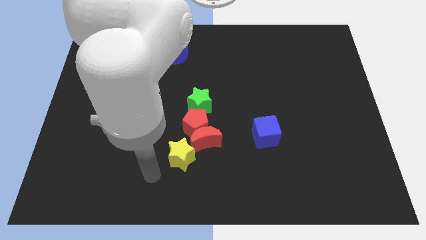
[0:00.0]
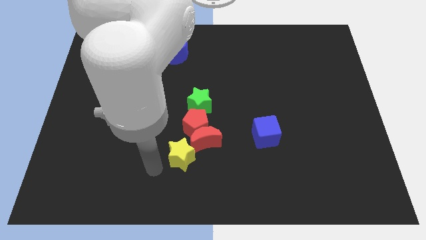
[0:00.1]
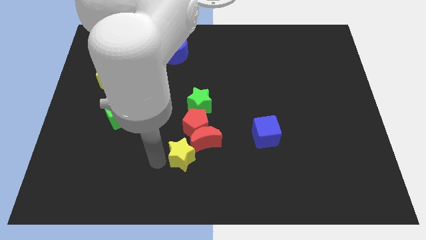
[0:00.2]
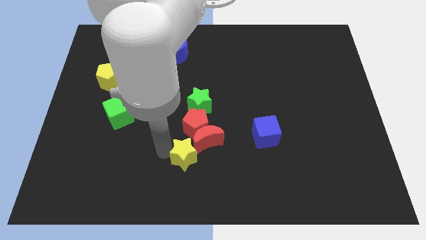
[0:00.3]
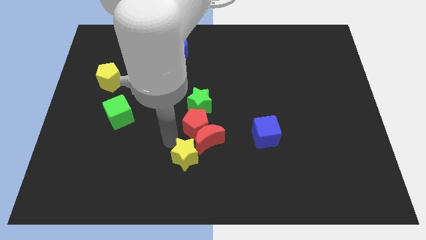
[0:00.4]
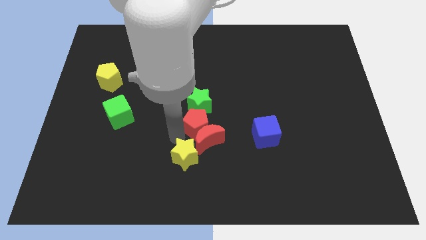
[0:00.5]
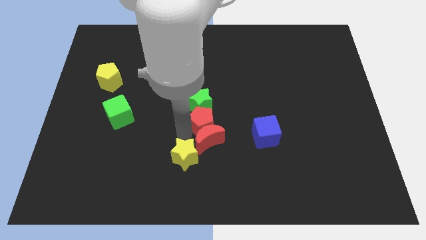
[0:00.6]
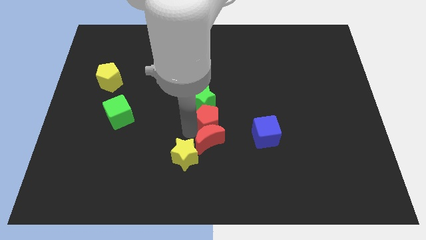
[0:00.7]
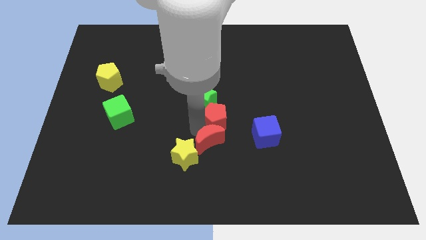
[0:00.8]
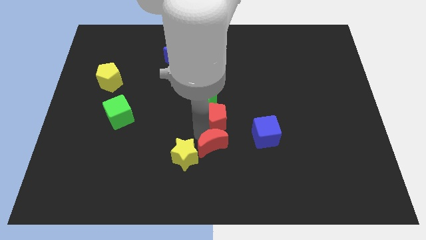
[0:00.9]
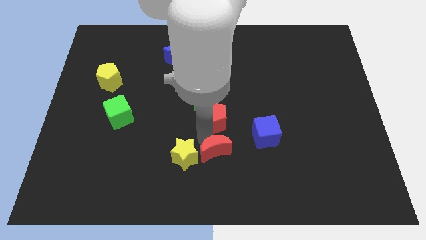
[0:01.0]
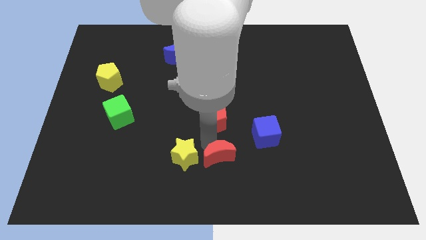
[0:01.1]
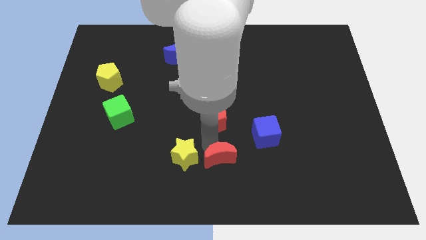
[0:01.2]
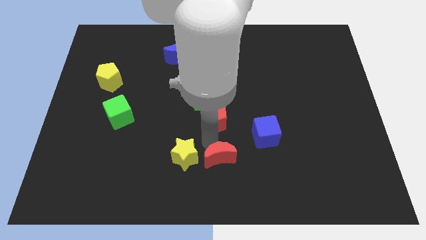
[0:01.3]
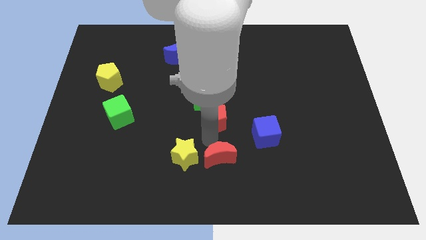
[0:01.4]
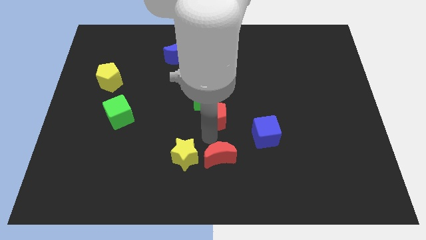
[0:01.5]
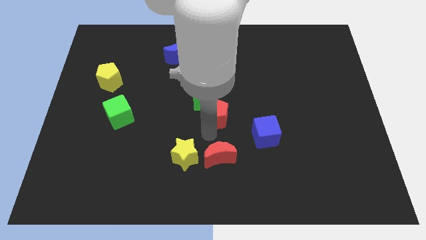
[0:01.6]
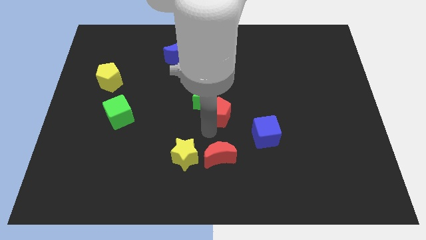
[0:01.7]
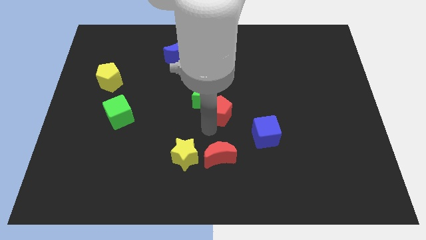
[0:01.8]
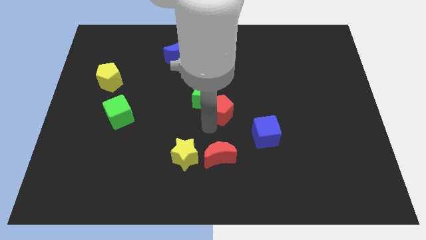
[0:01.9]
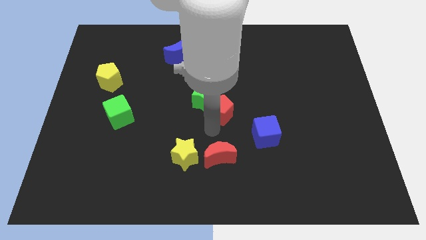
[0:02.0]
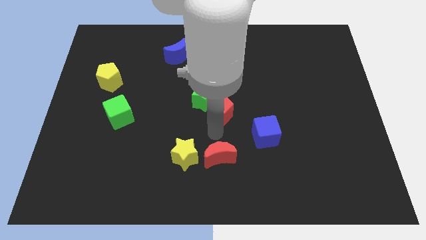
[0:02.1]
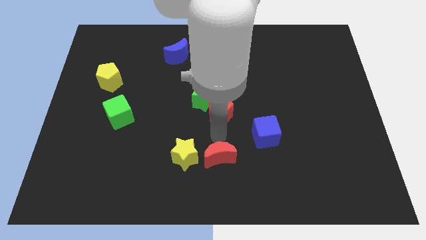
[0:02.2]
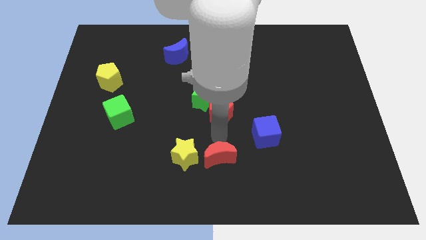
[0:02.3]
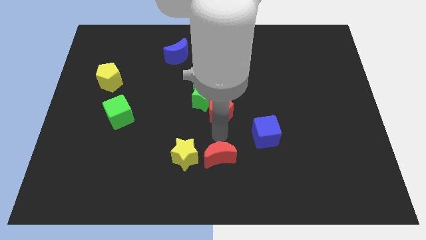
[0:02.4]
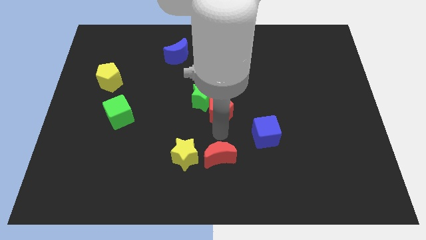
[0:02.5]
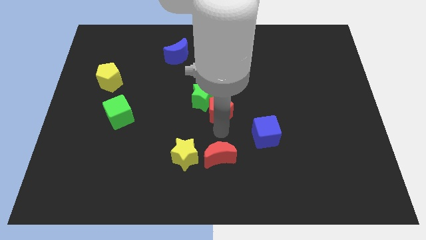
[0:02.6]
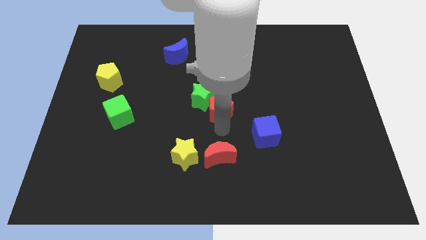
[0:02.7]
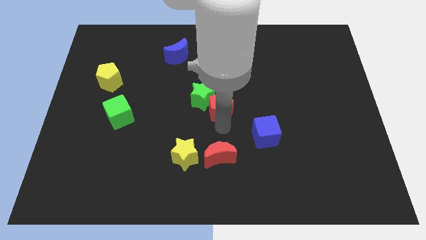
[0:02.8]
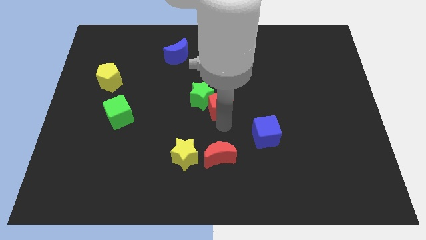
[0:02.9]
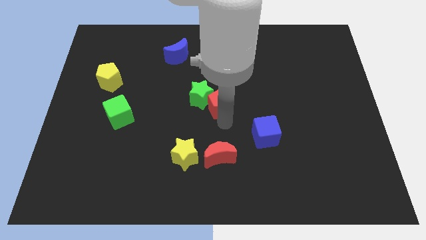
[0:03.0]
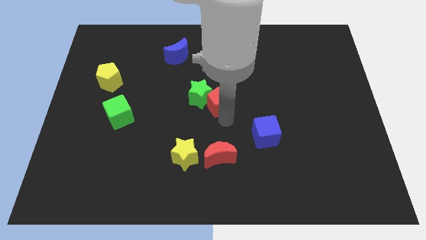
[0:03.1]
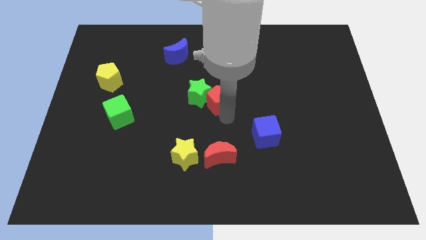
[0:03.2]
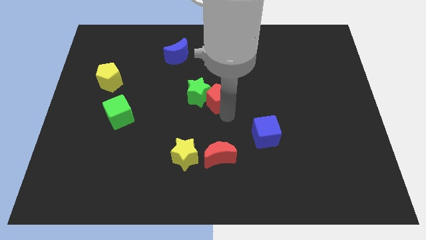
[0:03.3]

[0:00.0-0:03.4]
separate the red pentagon from the group of blocks

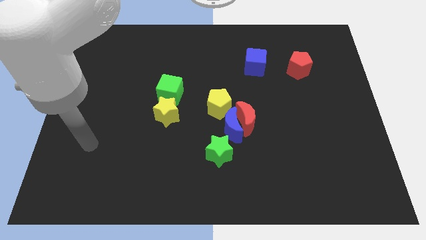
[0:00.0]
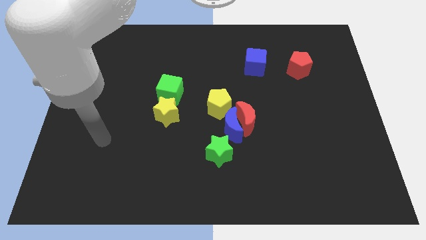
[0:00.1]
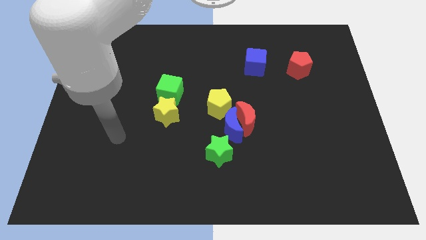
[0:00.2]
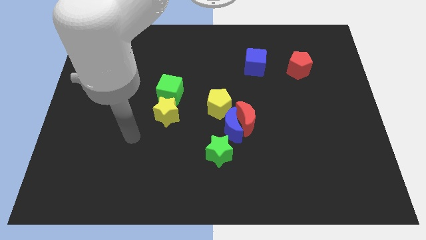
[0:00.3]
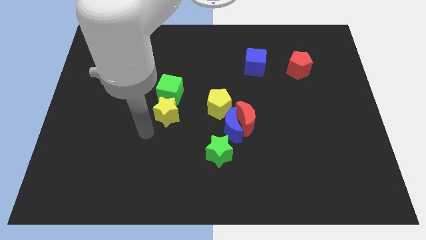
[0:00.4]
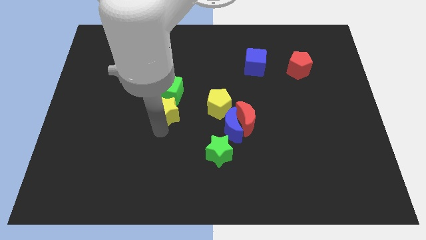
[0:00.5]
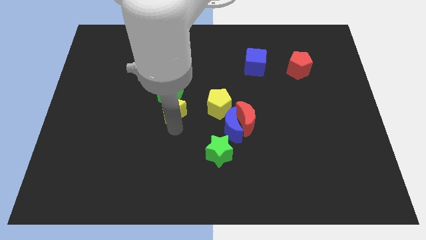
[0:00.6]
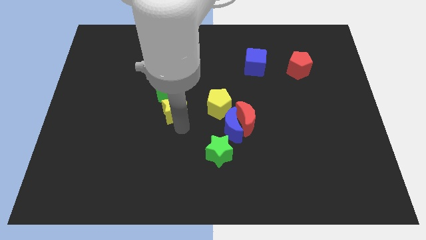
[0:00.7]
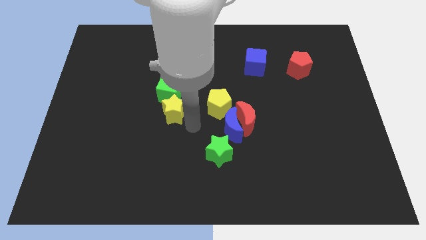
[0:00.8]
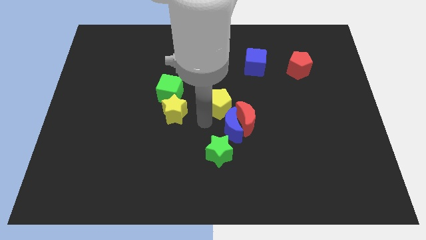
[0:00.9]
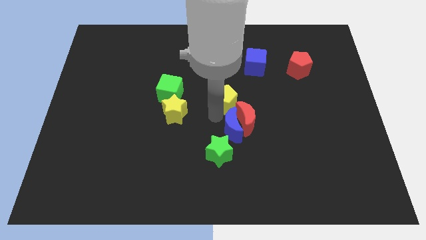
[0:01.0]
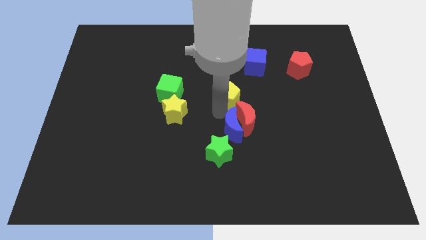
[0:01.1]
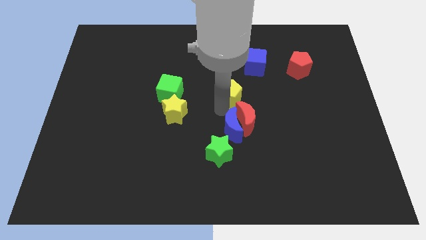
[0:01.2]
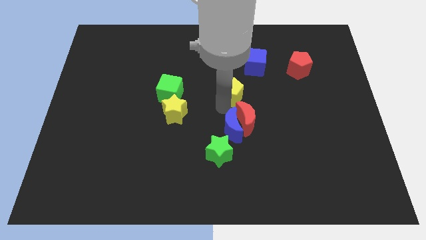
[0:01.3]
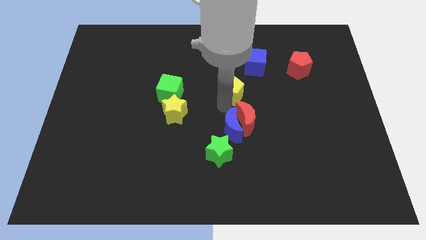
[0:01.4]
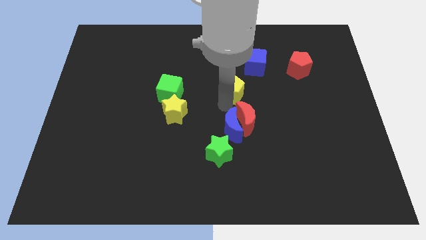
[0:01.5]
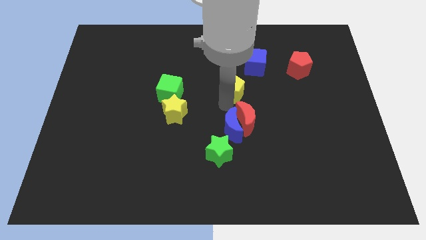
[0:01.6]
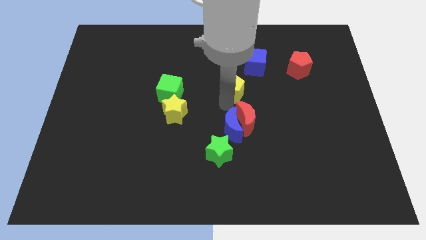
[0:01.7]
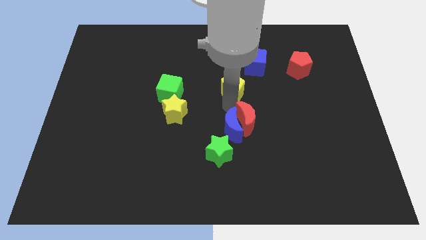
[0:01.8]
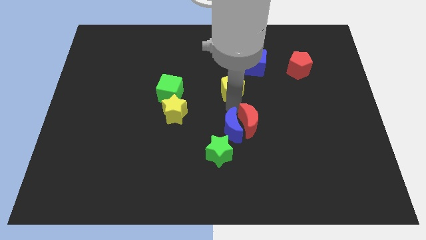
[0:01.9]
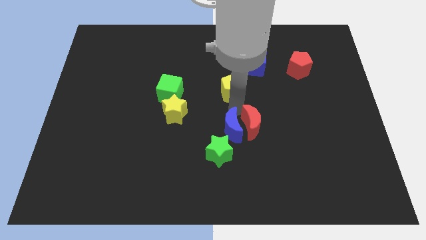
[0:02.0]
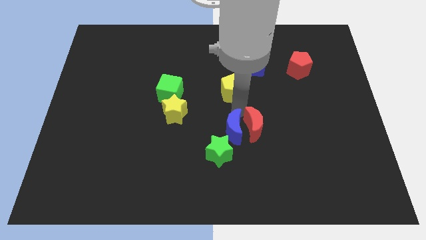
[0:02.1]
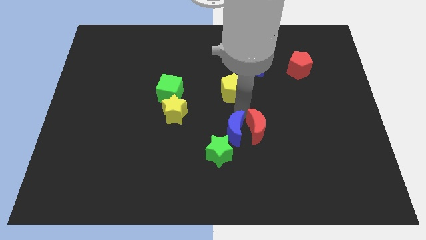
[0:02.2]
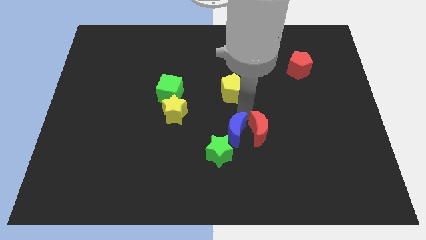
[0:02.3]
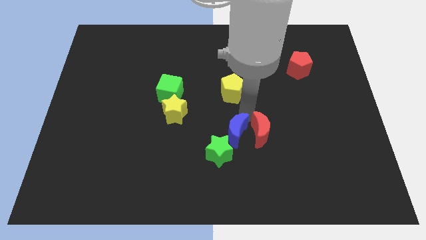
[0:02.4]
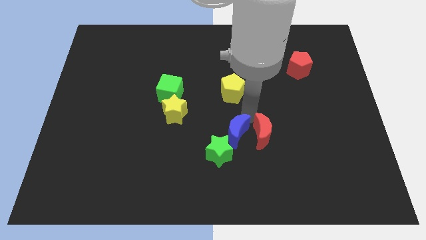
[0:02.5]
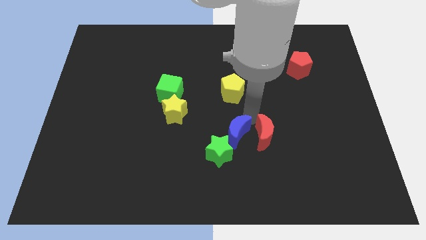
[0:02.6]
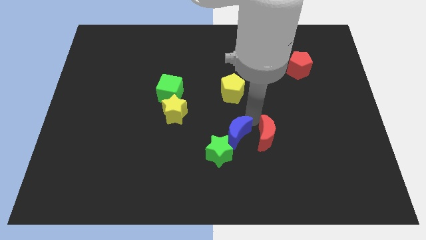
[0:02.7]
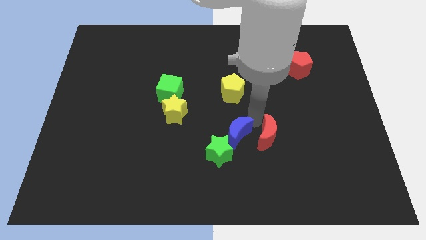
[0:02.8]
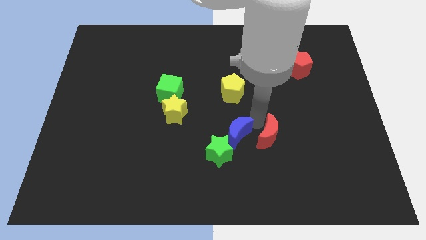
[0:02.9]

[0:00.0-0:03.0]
move the red moon away from the blue moon and yellow pentagon

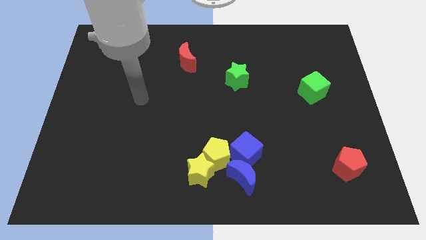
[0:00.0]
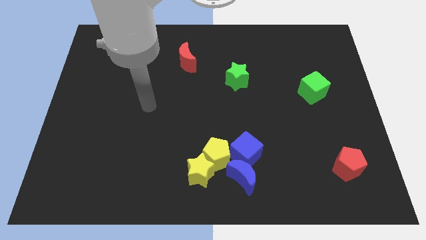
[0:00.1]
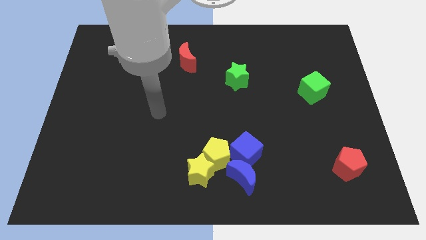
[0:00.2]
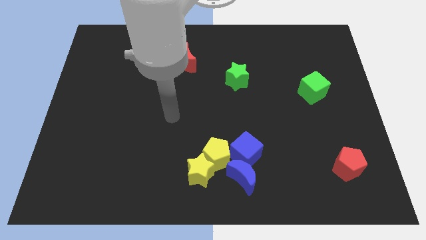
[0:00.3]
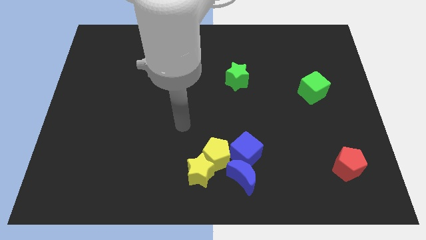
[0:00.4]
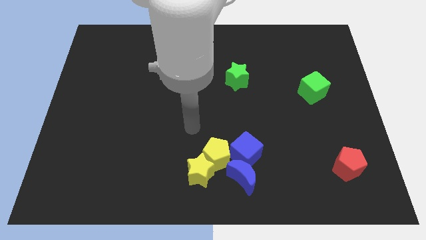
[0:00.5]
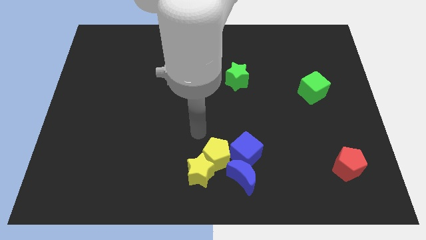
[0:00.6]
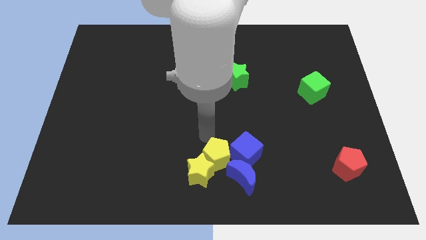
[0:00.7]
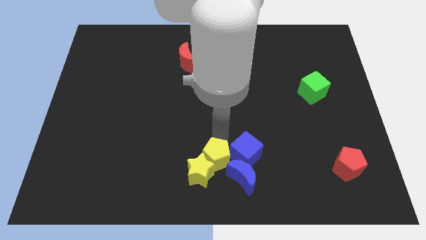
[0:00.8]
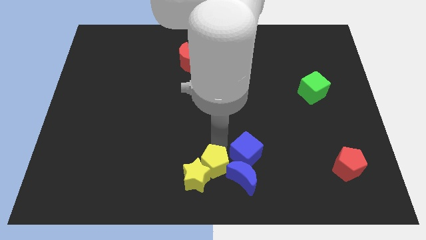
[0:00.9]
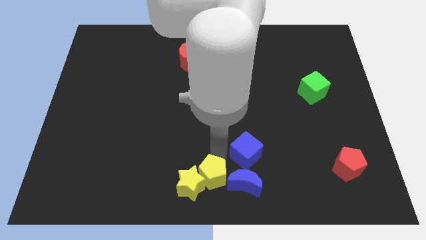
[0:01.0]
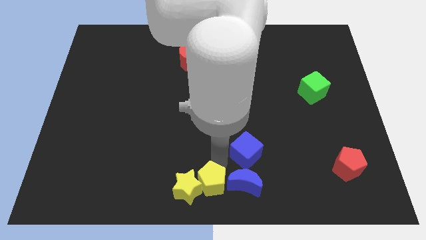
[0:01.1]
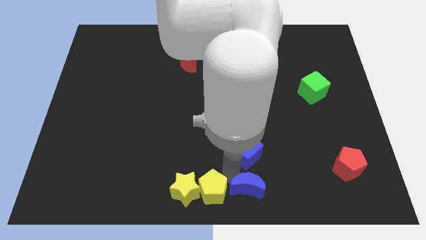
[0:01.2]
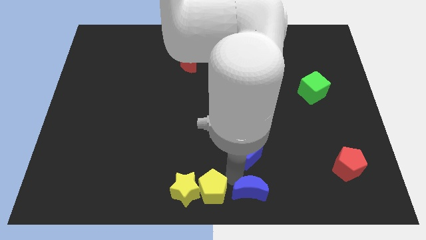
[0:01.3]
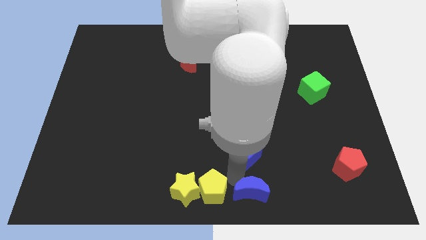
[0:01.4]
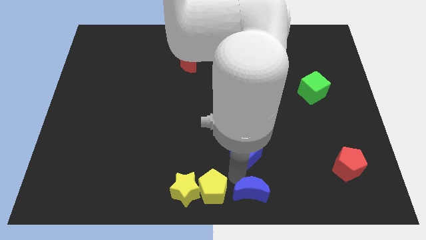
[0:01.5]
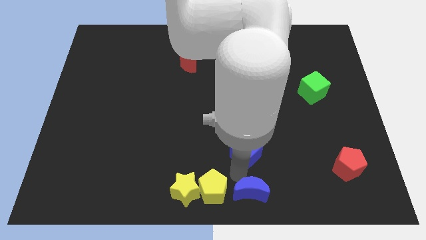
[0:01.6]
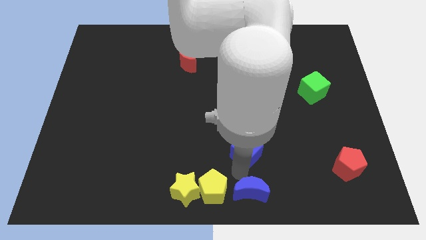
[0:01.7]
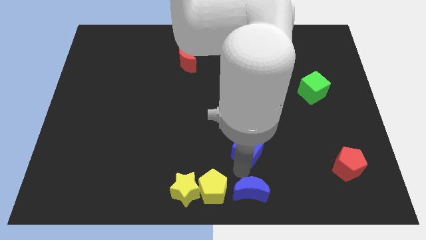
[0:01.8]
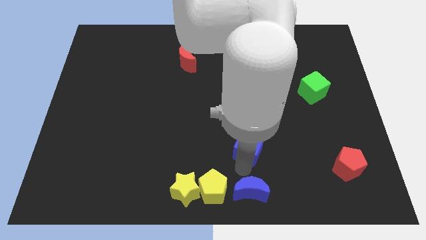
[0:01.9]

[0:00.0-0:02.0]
pull the blue cube apart from the blue moon and yellow pentagon

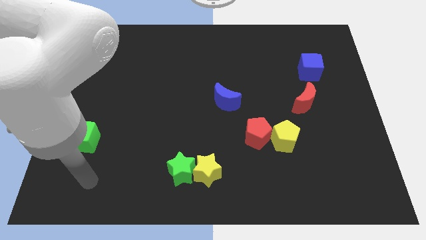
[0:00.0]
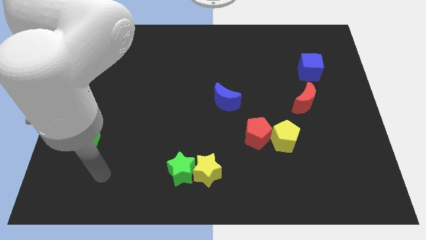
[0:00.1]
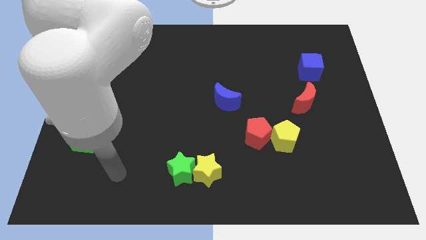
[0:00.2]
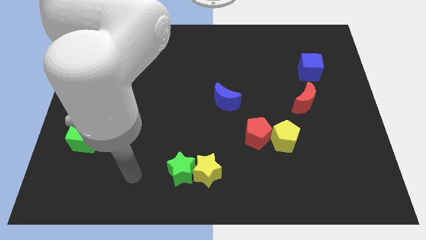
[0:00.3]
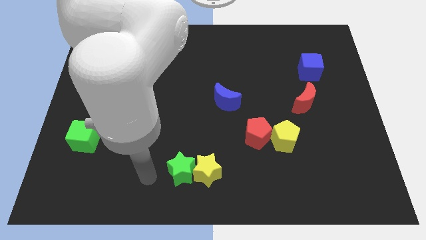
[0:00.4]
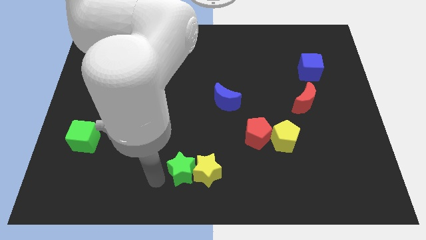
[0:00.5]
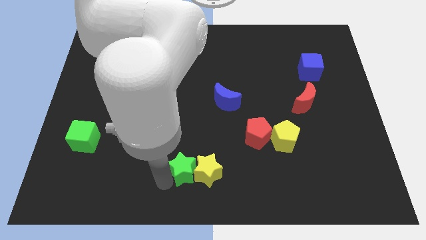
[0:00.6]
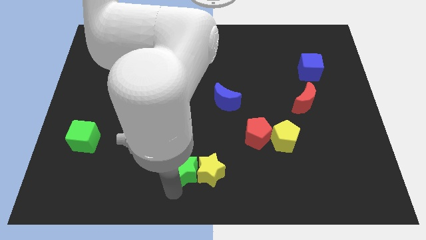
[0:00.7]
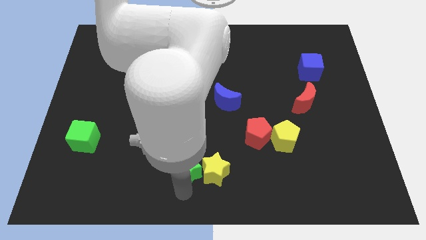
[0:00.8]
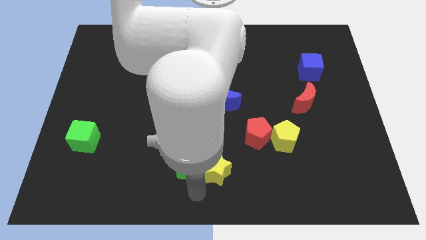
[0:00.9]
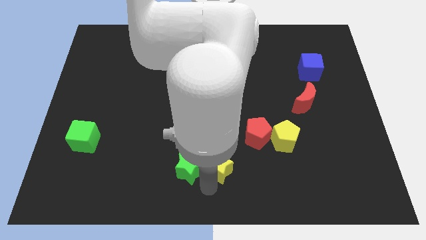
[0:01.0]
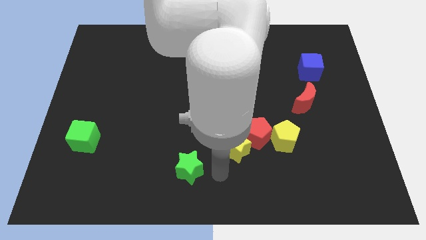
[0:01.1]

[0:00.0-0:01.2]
separate the green star from the yellow star
